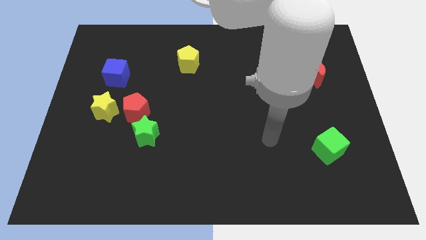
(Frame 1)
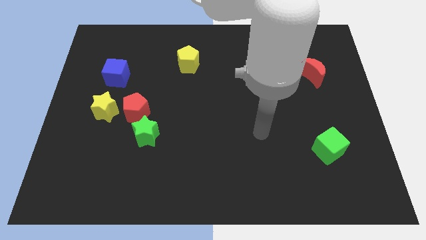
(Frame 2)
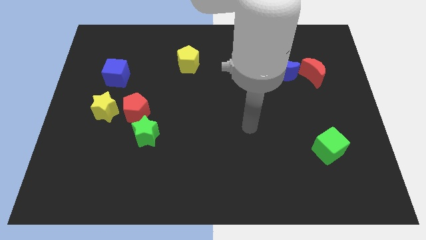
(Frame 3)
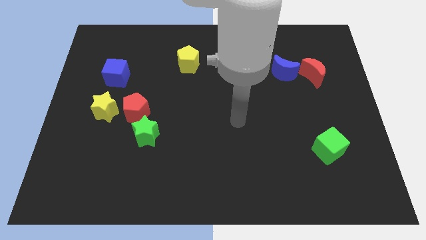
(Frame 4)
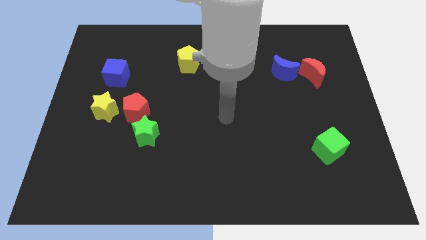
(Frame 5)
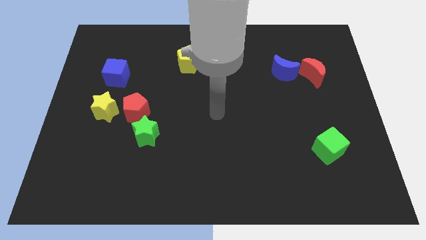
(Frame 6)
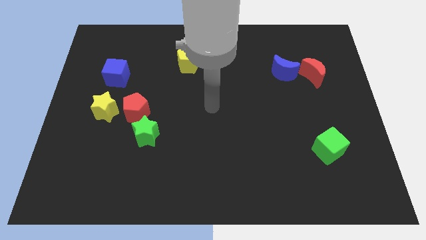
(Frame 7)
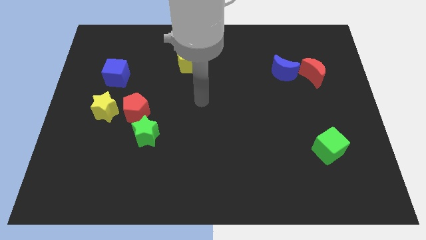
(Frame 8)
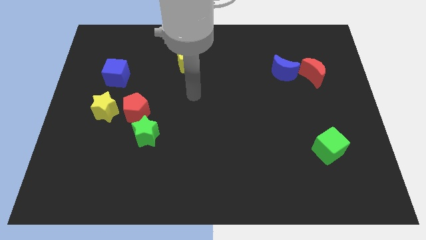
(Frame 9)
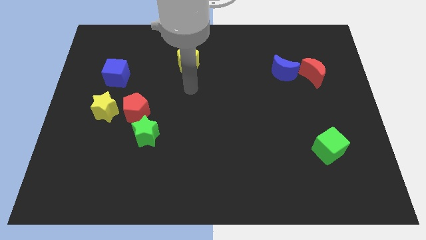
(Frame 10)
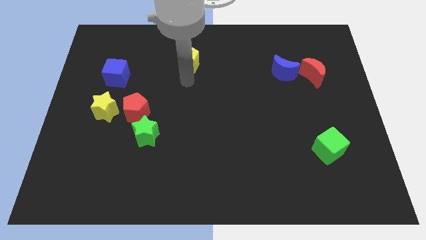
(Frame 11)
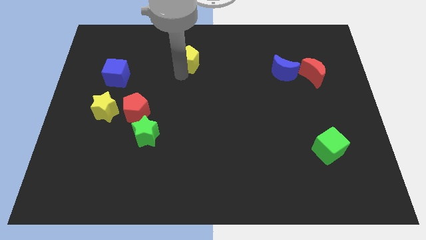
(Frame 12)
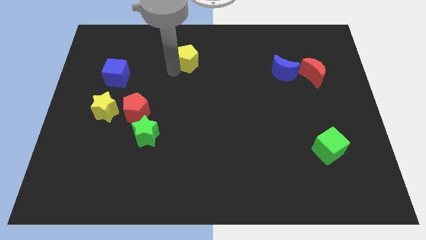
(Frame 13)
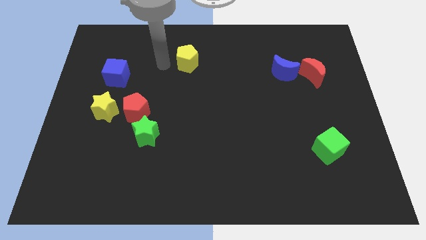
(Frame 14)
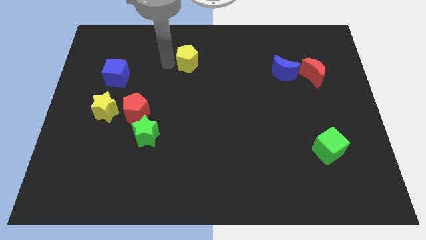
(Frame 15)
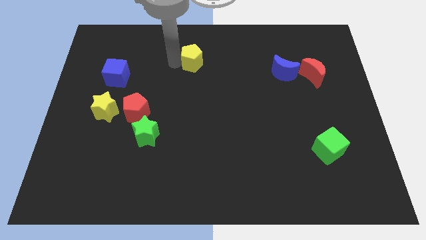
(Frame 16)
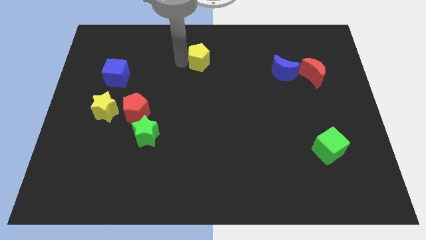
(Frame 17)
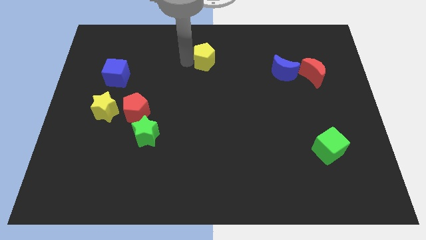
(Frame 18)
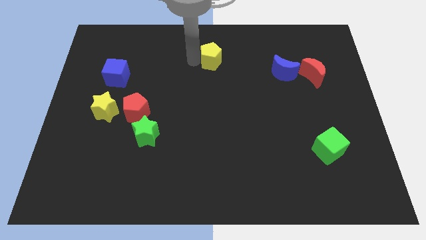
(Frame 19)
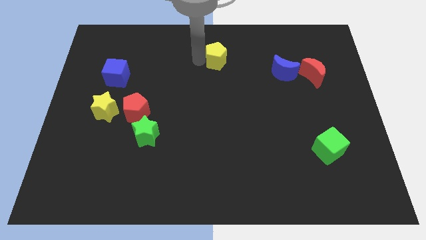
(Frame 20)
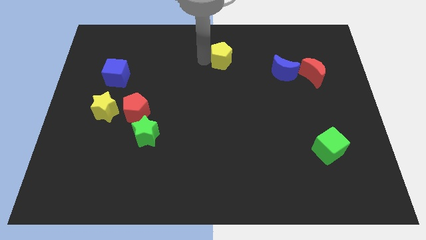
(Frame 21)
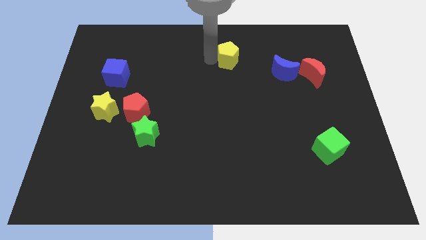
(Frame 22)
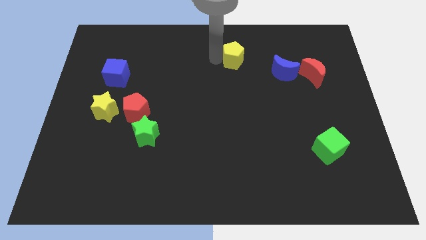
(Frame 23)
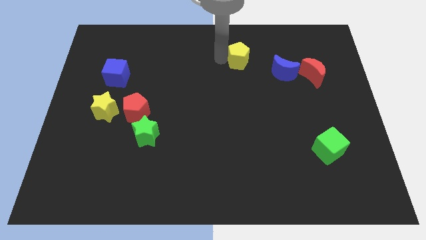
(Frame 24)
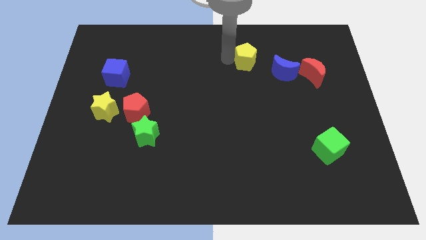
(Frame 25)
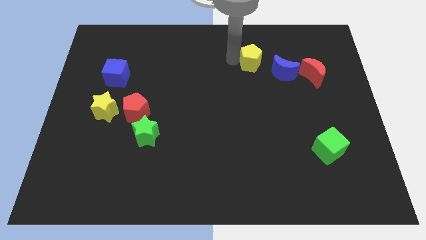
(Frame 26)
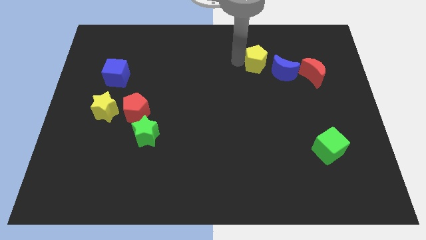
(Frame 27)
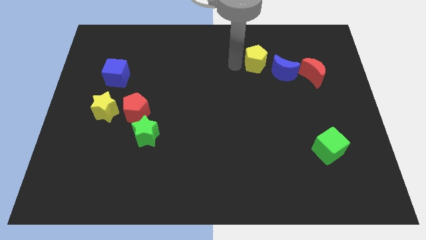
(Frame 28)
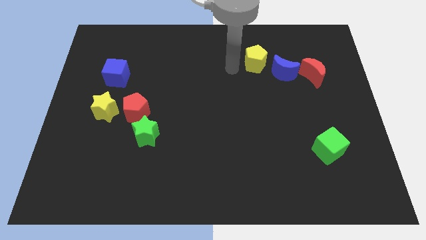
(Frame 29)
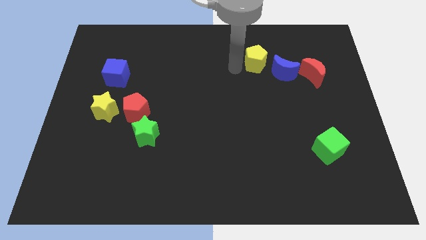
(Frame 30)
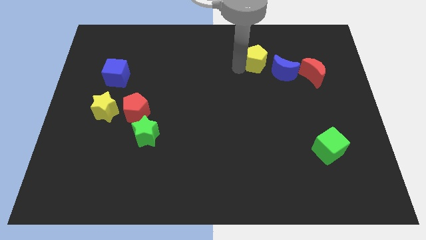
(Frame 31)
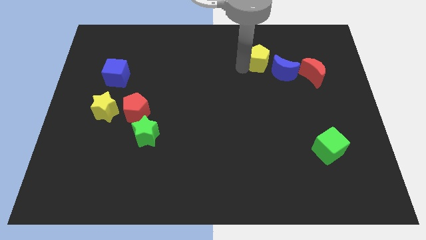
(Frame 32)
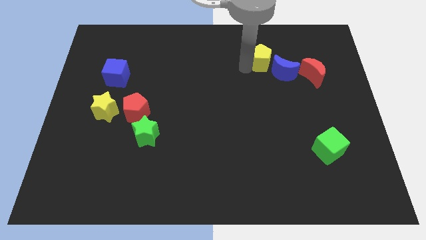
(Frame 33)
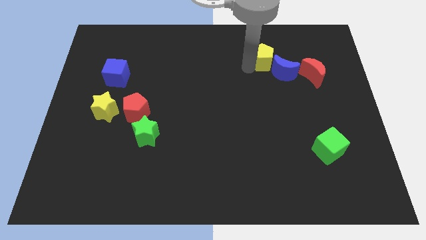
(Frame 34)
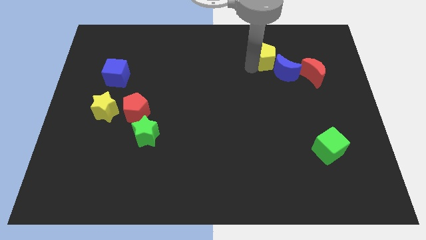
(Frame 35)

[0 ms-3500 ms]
push the yellow pentagon to the right

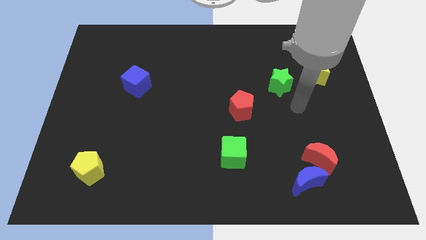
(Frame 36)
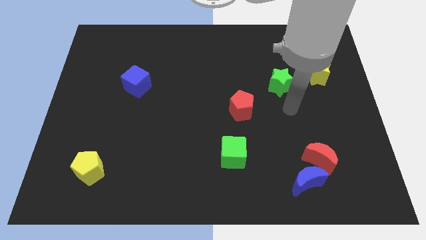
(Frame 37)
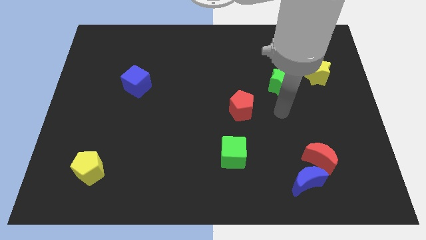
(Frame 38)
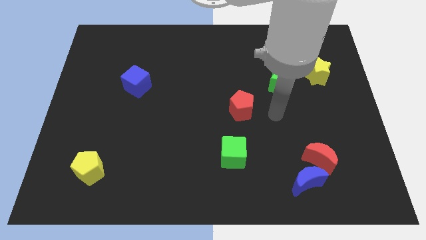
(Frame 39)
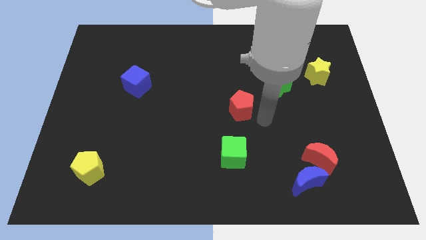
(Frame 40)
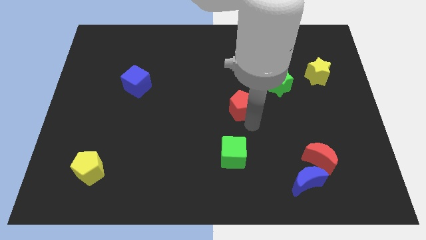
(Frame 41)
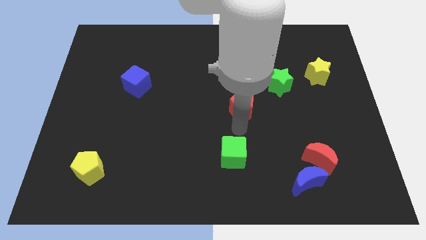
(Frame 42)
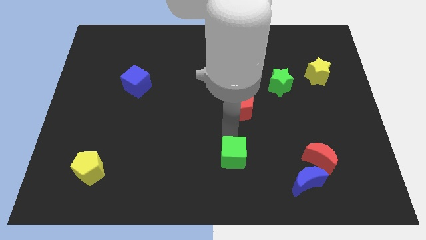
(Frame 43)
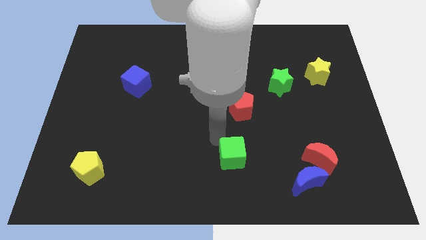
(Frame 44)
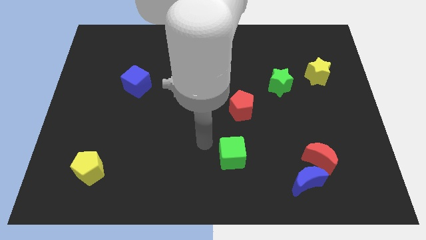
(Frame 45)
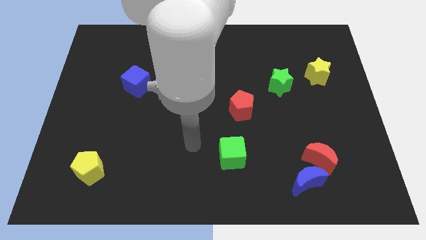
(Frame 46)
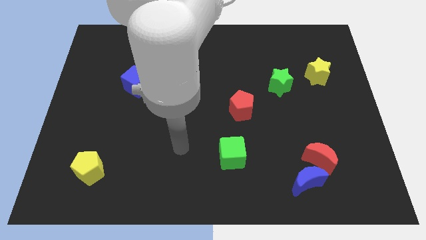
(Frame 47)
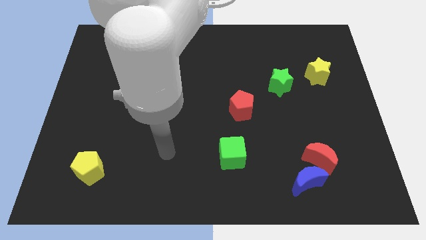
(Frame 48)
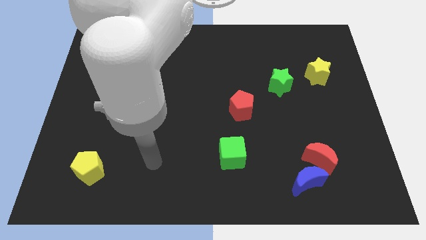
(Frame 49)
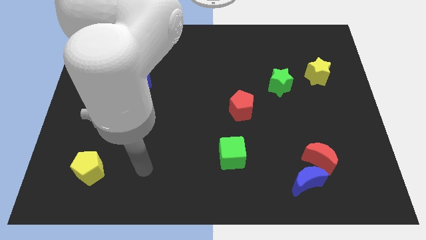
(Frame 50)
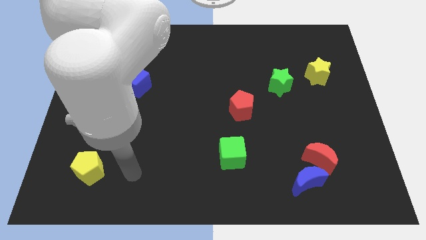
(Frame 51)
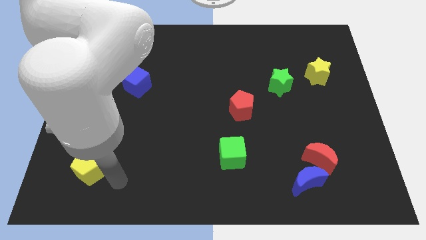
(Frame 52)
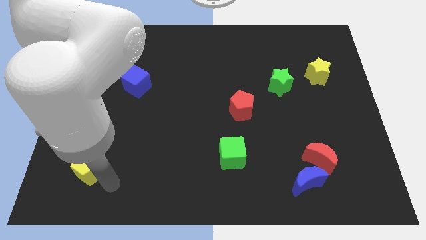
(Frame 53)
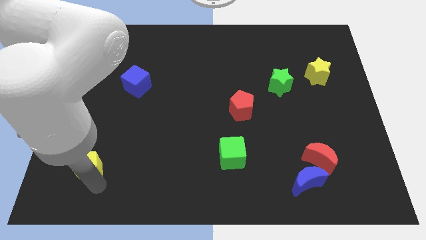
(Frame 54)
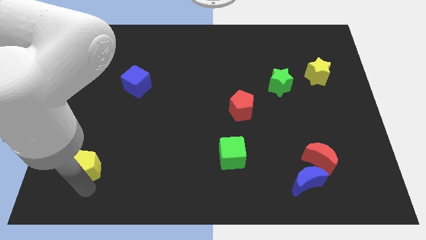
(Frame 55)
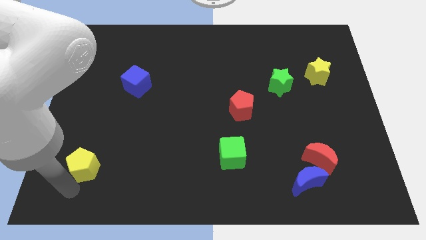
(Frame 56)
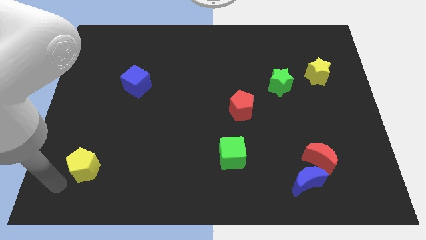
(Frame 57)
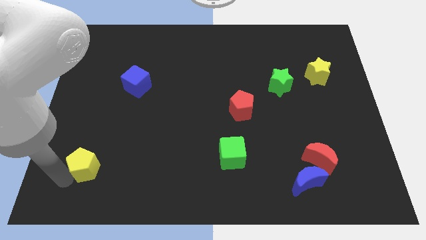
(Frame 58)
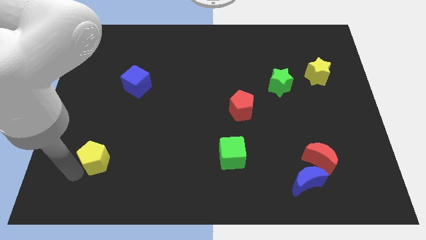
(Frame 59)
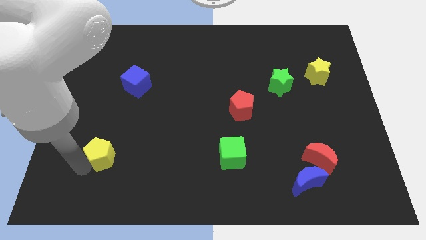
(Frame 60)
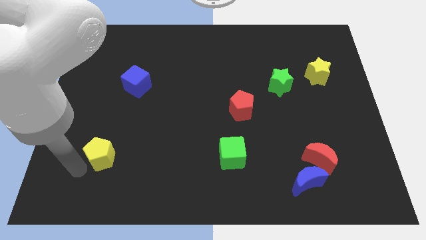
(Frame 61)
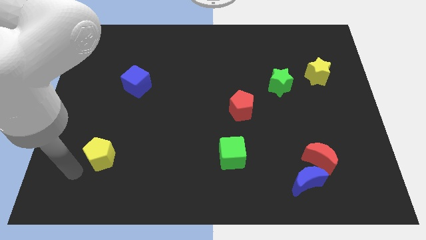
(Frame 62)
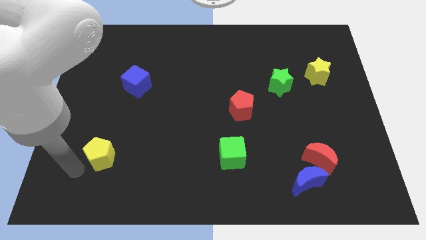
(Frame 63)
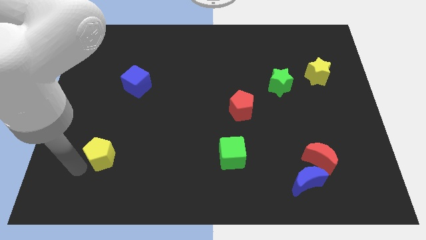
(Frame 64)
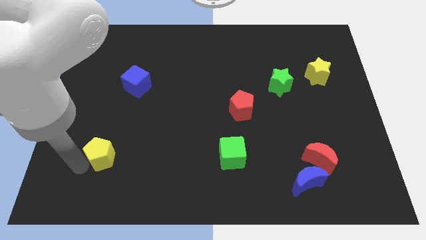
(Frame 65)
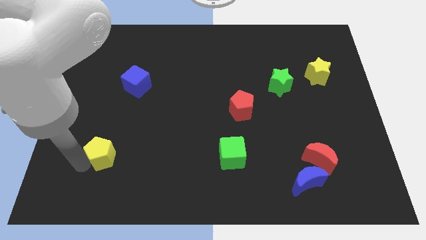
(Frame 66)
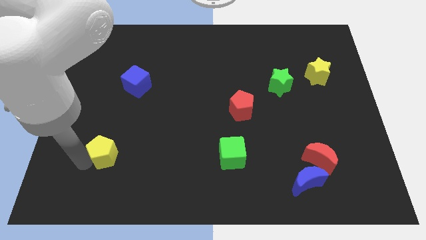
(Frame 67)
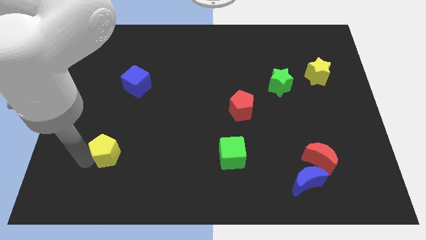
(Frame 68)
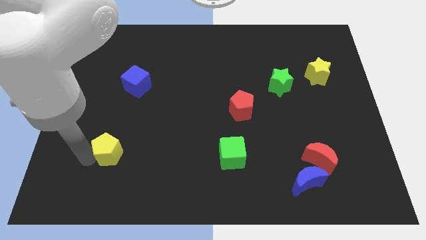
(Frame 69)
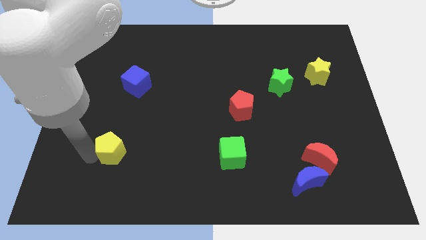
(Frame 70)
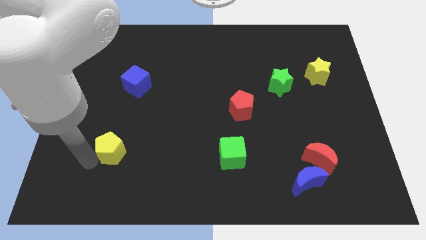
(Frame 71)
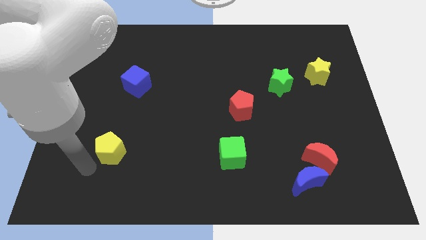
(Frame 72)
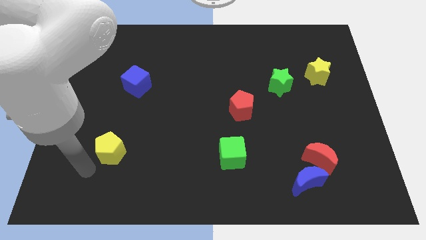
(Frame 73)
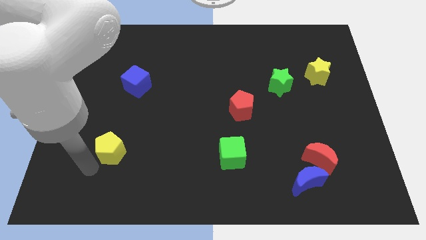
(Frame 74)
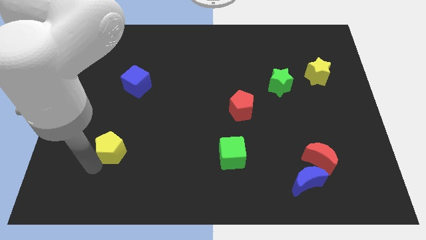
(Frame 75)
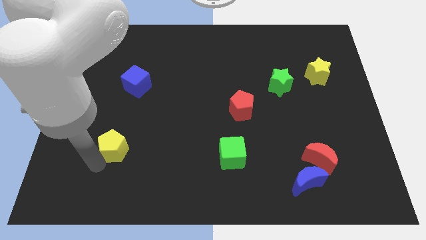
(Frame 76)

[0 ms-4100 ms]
move the yellow pentagon up and to the right slightly

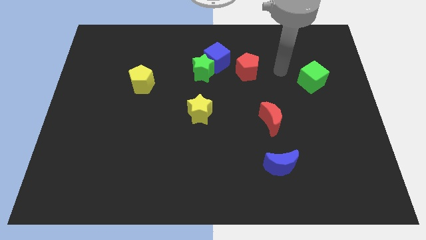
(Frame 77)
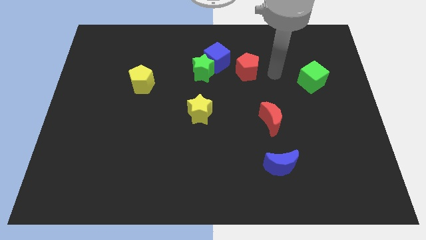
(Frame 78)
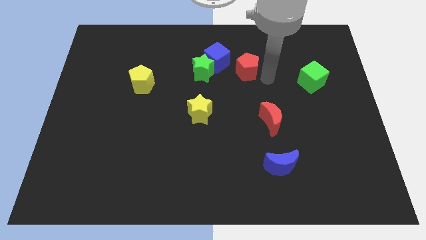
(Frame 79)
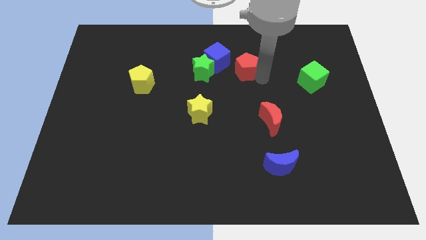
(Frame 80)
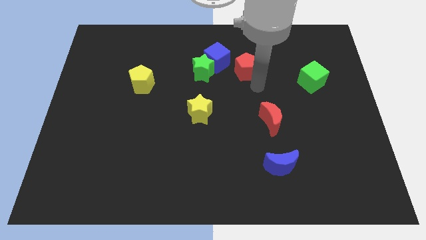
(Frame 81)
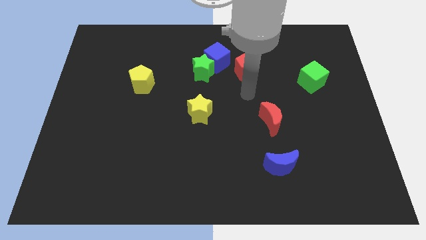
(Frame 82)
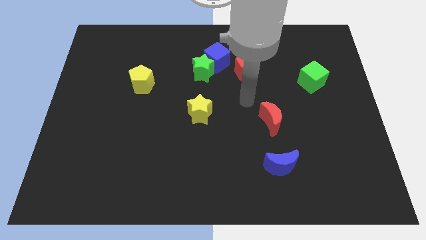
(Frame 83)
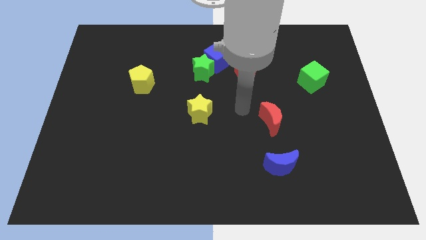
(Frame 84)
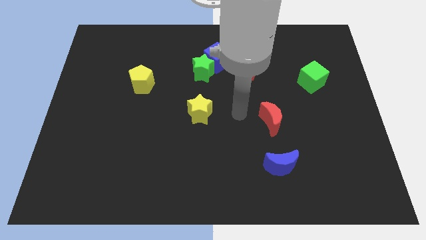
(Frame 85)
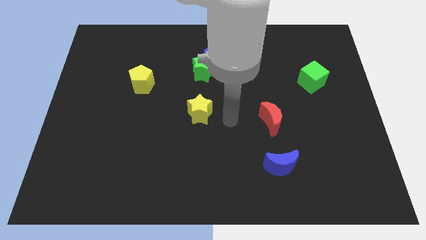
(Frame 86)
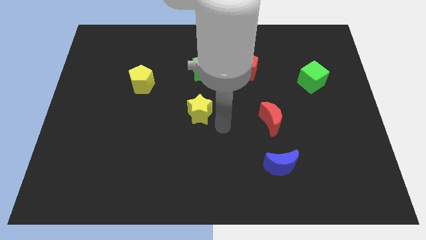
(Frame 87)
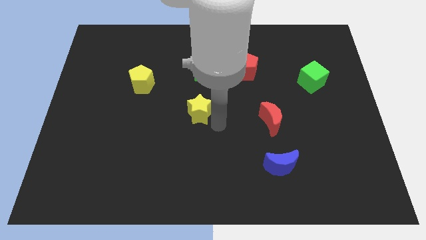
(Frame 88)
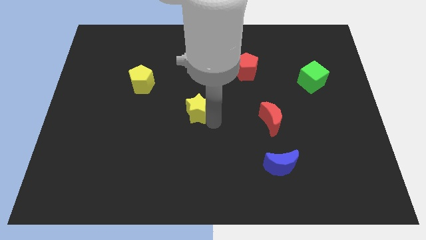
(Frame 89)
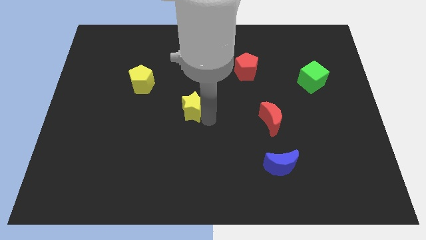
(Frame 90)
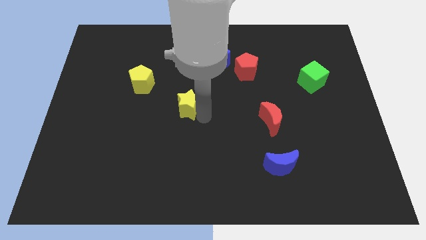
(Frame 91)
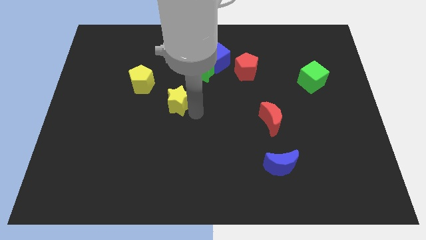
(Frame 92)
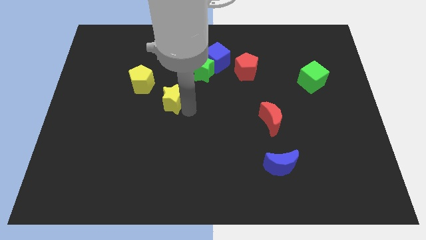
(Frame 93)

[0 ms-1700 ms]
move the yellow star a little upwards and to the left
